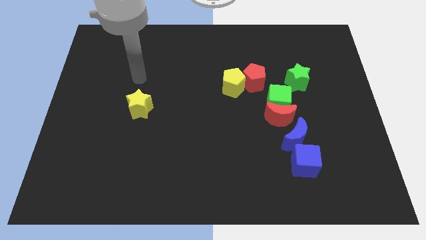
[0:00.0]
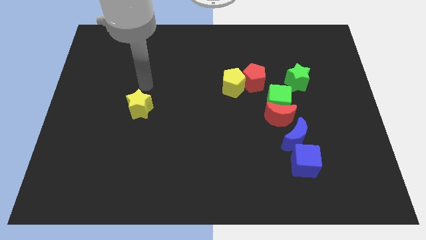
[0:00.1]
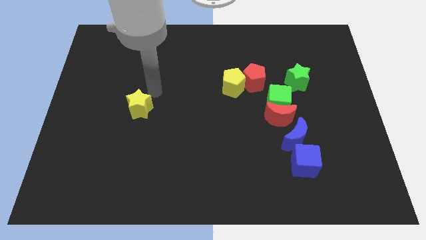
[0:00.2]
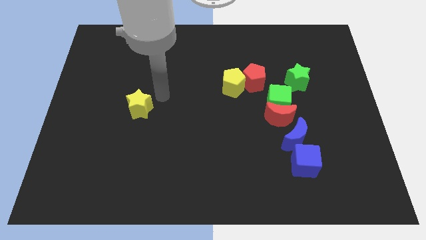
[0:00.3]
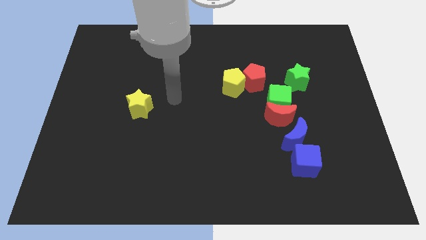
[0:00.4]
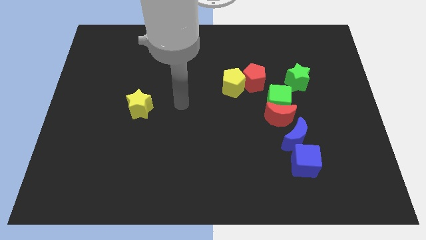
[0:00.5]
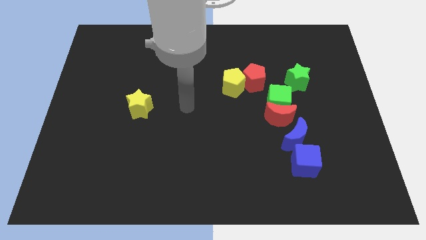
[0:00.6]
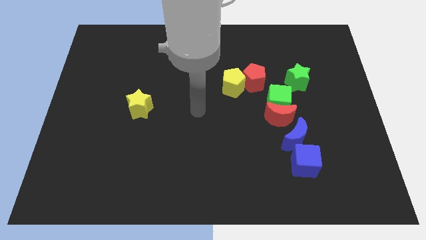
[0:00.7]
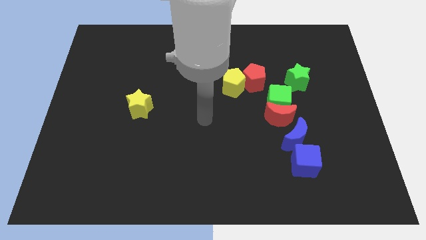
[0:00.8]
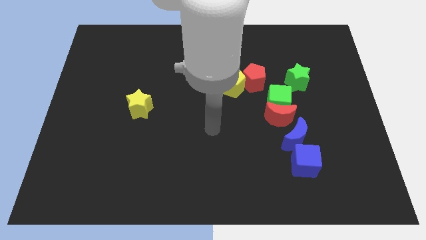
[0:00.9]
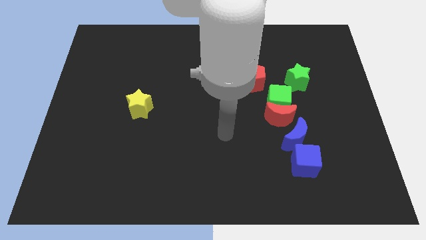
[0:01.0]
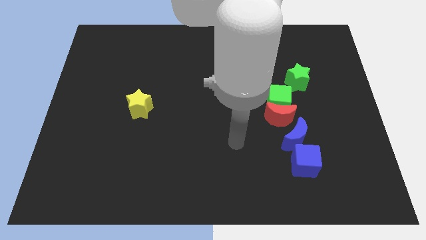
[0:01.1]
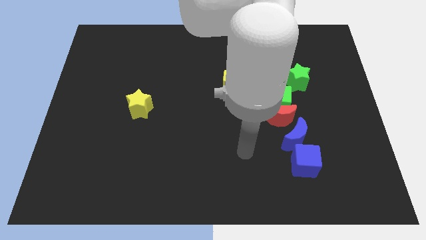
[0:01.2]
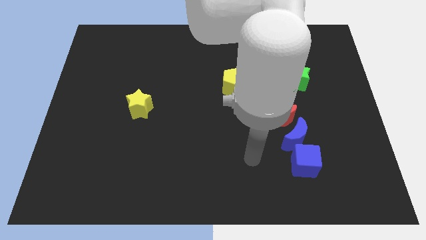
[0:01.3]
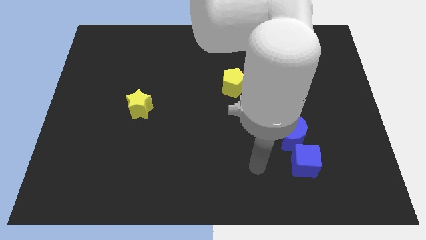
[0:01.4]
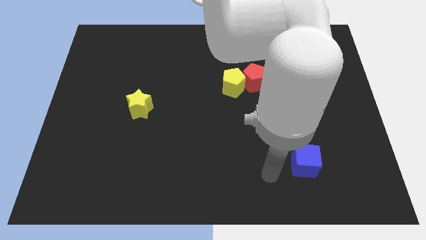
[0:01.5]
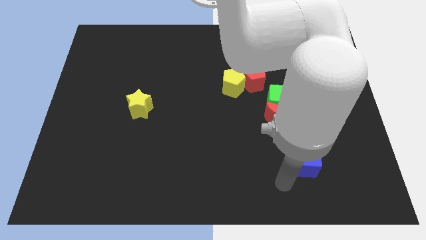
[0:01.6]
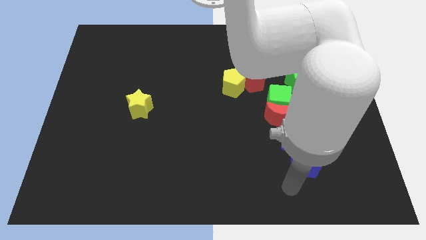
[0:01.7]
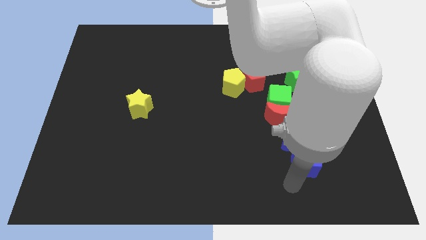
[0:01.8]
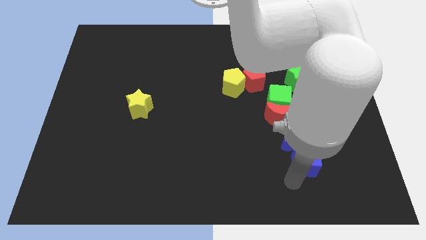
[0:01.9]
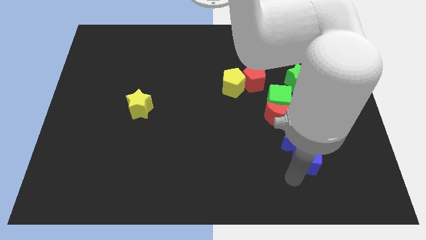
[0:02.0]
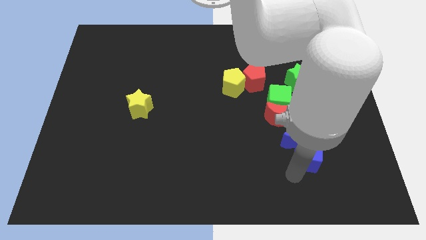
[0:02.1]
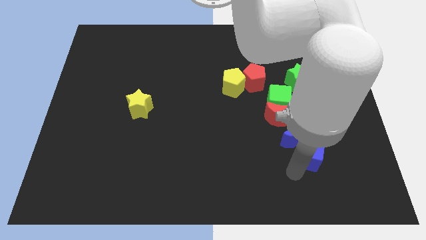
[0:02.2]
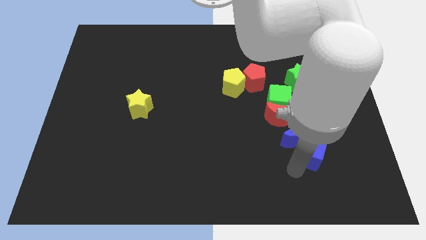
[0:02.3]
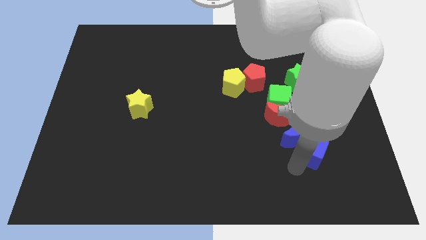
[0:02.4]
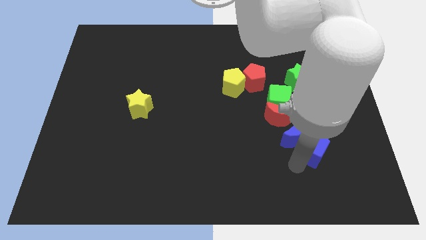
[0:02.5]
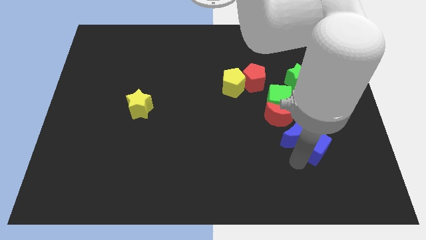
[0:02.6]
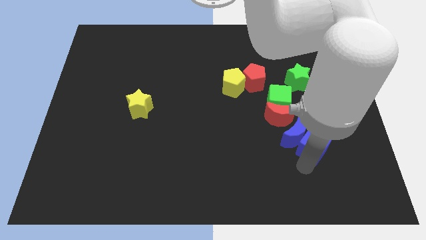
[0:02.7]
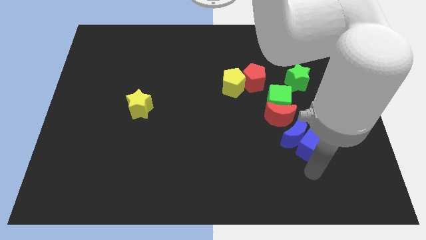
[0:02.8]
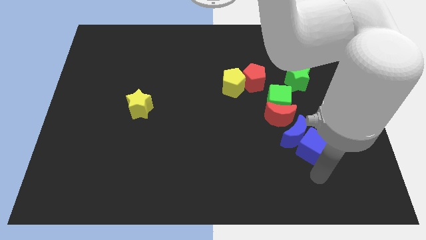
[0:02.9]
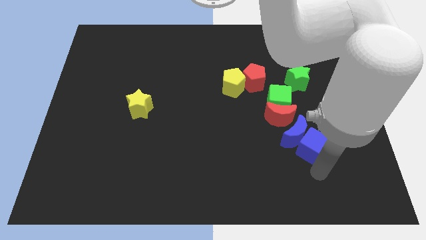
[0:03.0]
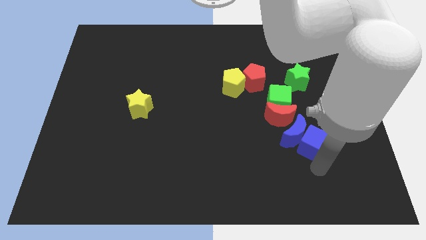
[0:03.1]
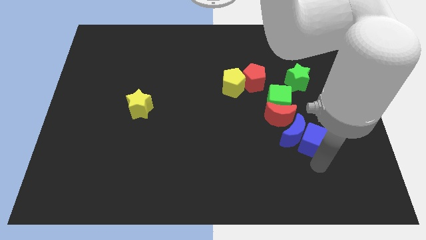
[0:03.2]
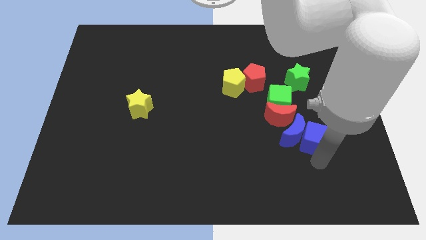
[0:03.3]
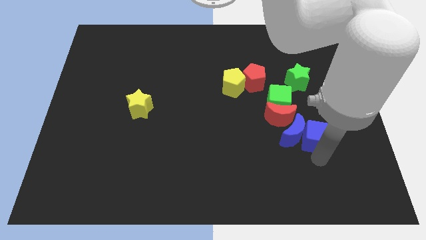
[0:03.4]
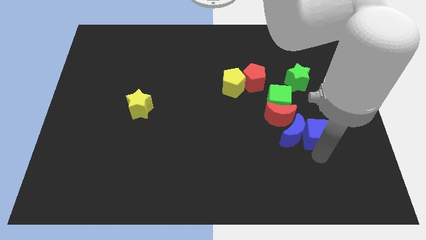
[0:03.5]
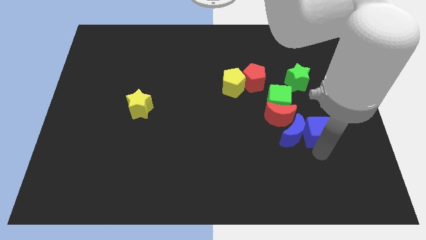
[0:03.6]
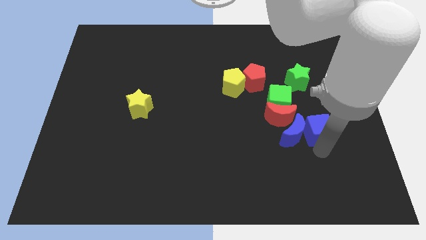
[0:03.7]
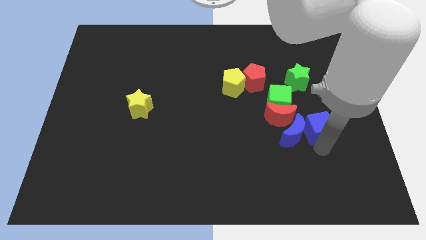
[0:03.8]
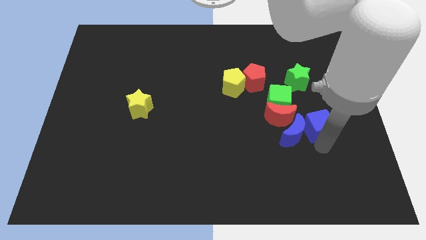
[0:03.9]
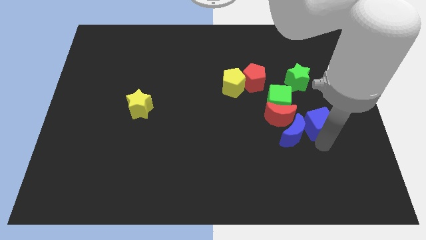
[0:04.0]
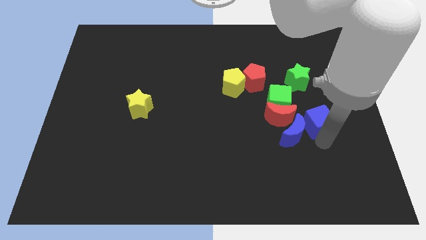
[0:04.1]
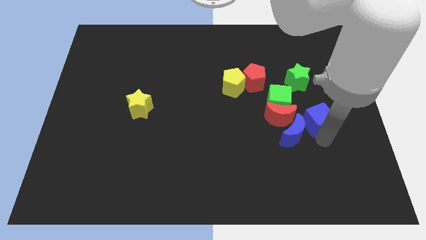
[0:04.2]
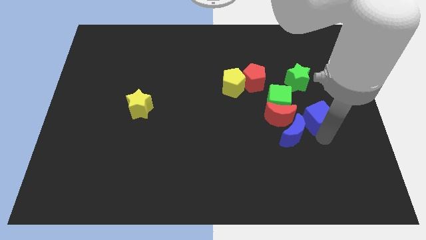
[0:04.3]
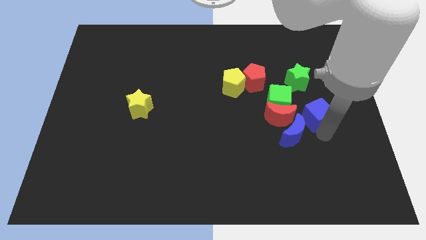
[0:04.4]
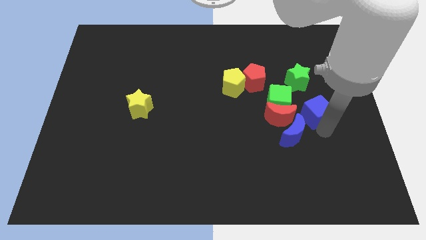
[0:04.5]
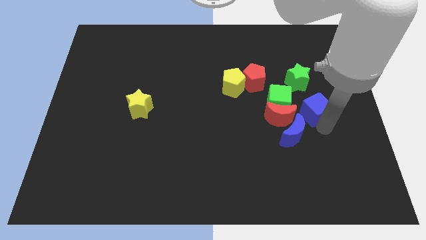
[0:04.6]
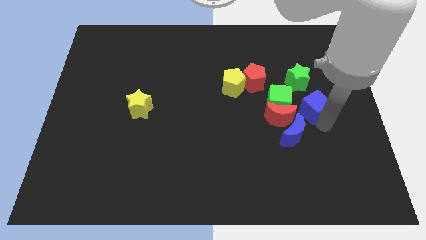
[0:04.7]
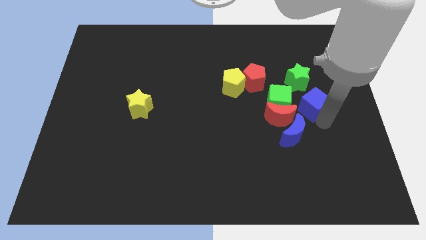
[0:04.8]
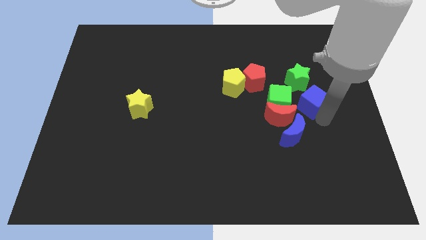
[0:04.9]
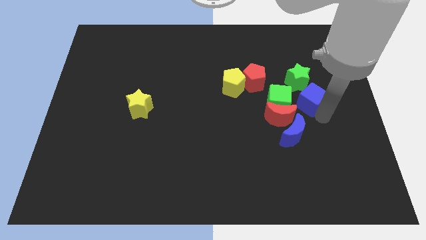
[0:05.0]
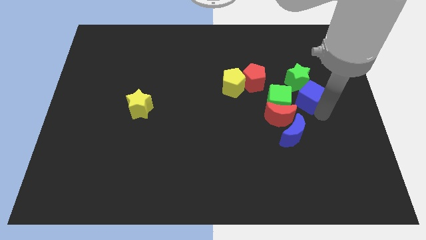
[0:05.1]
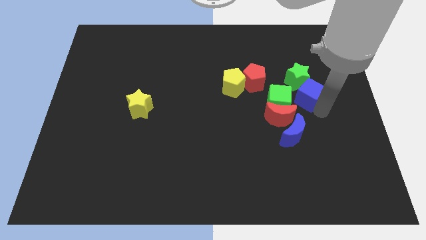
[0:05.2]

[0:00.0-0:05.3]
slide the blue cube to the top side of the blue moon

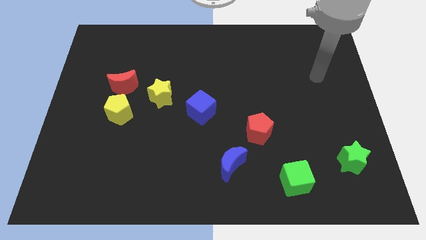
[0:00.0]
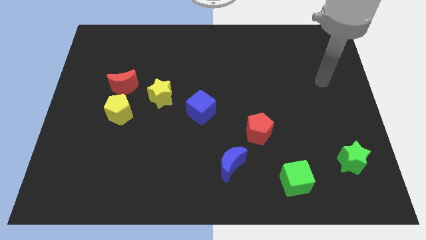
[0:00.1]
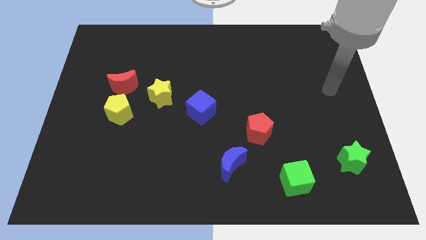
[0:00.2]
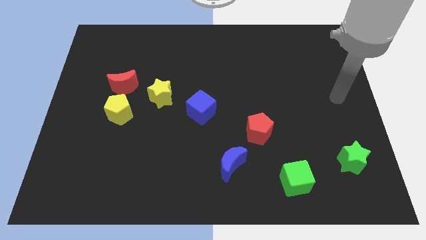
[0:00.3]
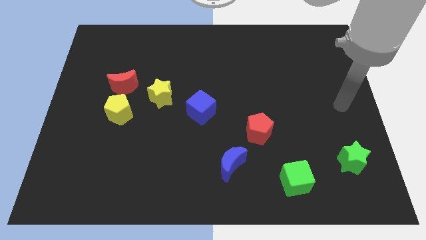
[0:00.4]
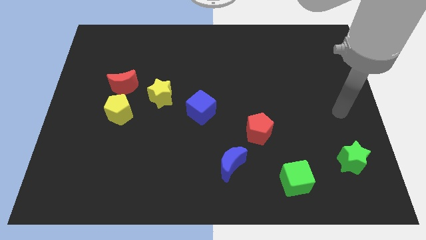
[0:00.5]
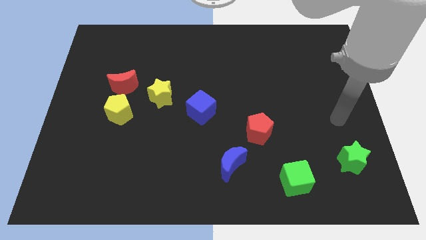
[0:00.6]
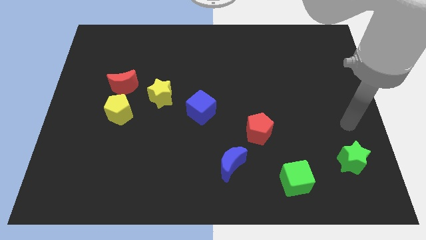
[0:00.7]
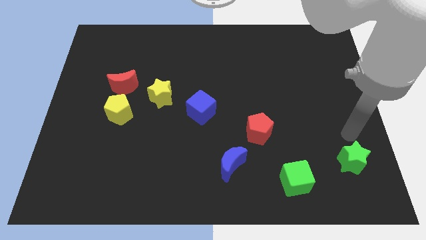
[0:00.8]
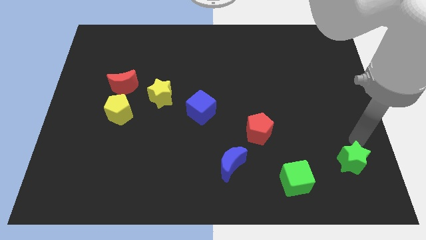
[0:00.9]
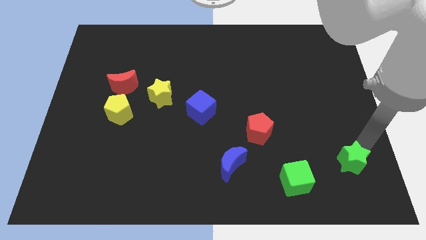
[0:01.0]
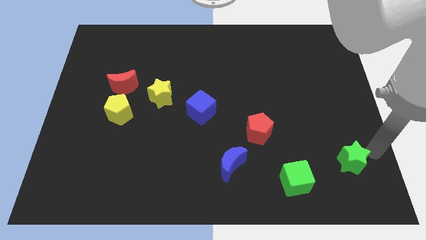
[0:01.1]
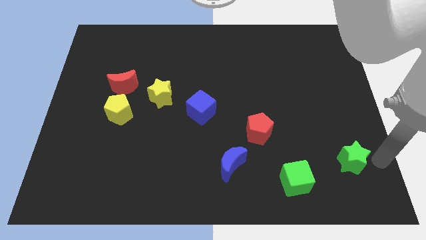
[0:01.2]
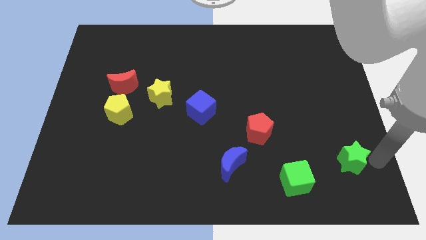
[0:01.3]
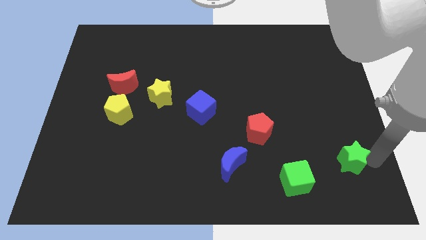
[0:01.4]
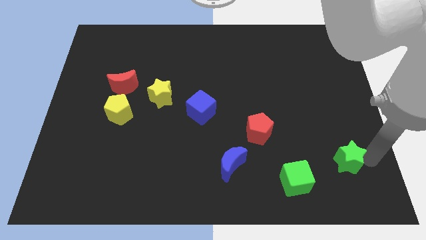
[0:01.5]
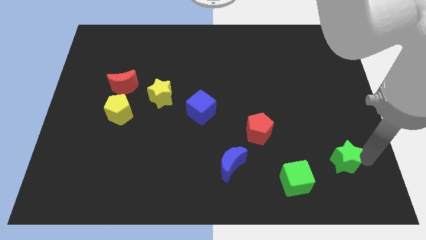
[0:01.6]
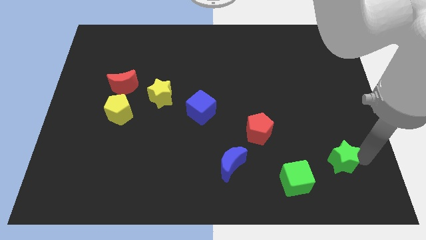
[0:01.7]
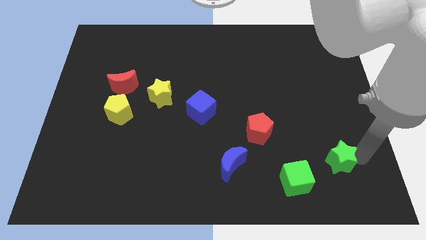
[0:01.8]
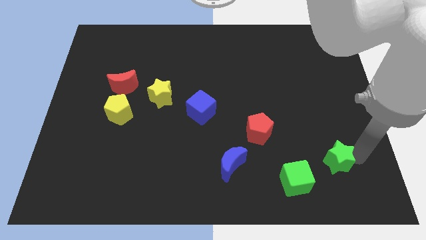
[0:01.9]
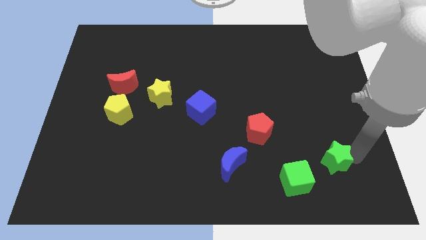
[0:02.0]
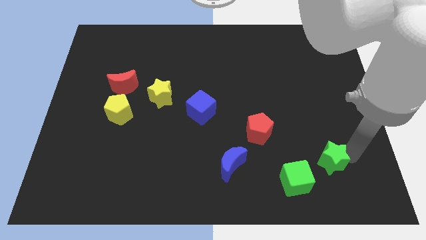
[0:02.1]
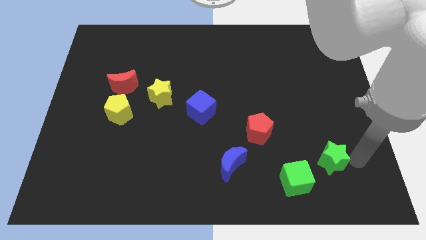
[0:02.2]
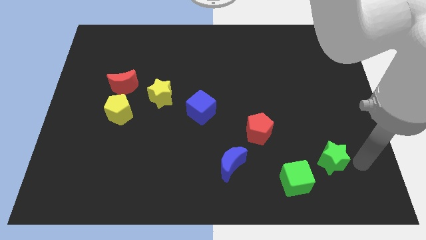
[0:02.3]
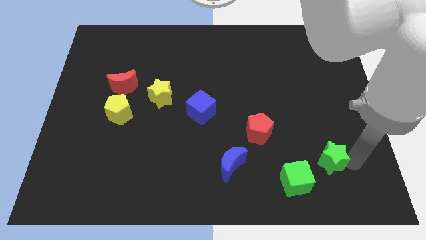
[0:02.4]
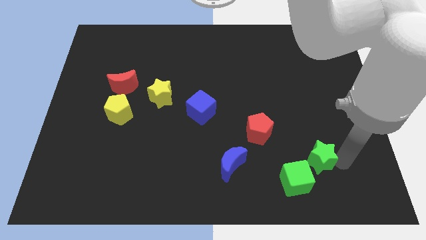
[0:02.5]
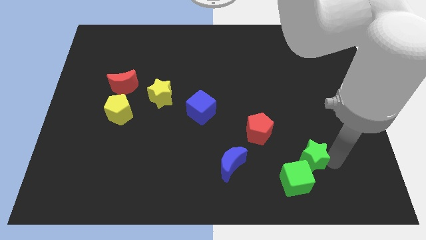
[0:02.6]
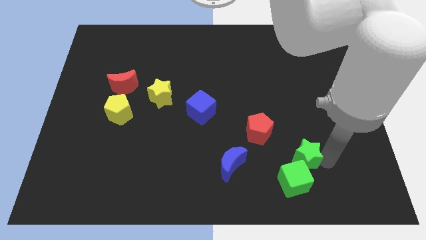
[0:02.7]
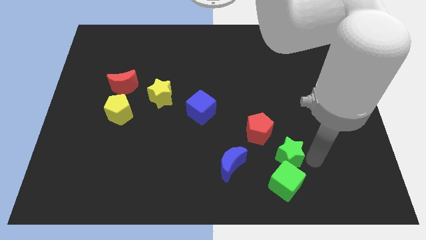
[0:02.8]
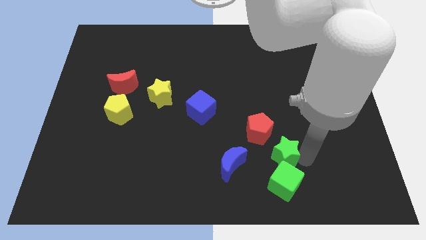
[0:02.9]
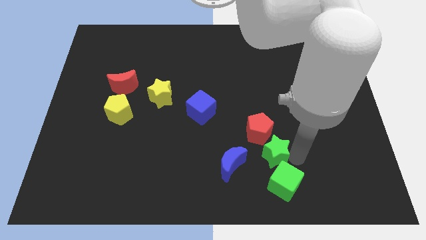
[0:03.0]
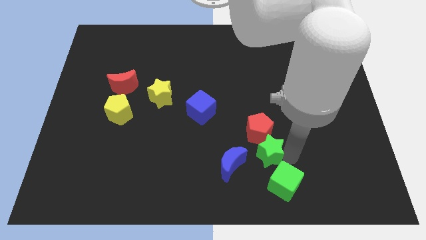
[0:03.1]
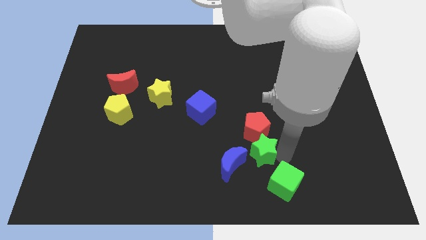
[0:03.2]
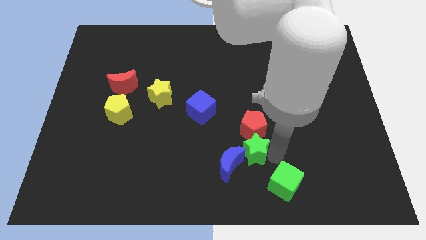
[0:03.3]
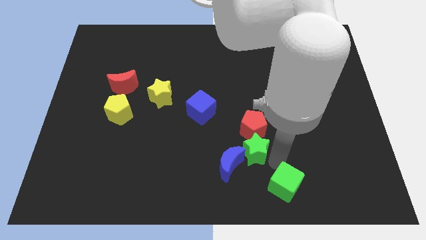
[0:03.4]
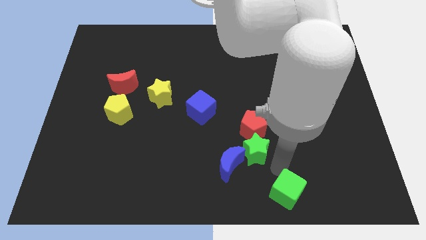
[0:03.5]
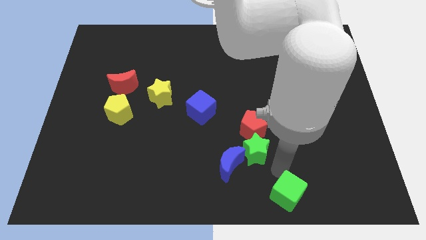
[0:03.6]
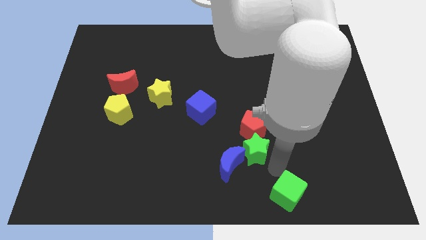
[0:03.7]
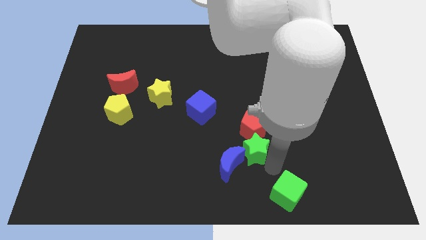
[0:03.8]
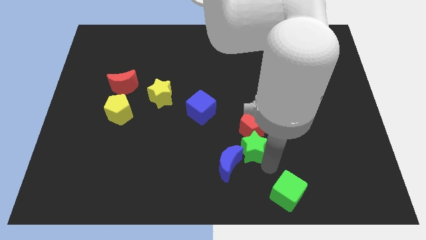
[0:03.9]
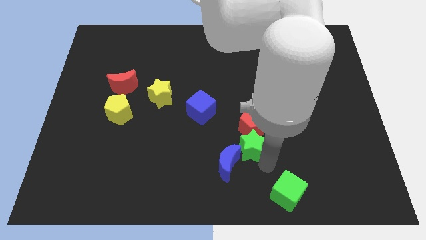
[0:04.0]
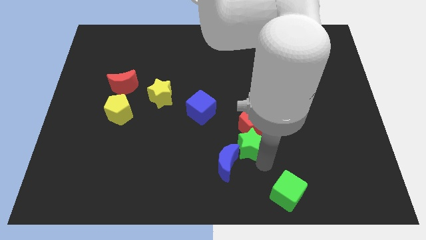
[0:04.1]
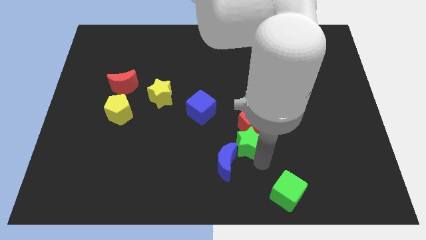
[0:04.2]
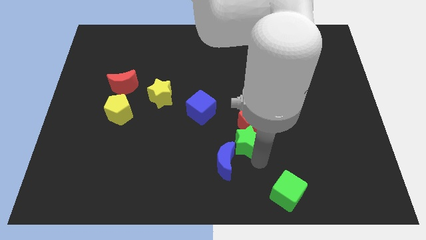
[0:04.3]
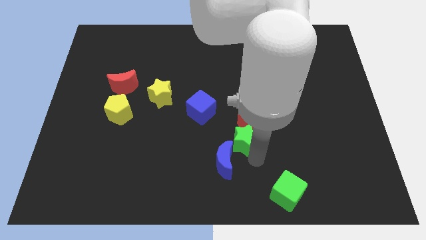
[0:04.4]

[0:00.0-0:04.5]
push the green star to the bottom right side of the blue cube
